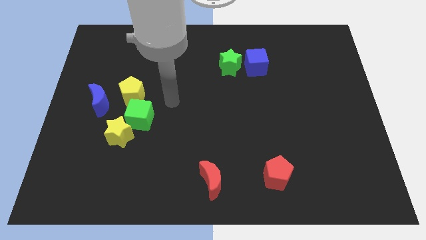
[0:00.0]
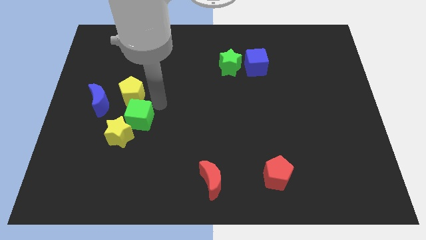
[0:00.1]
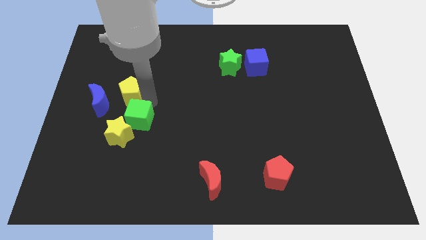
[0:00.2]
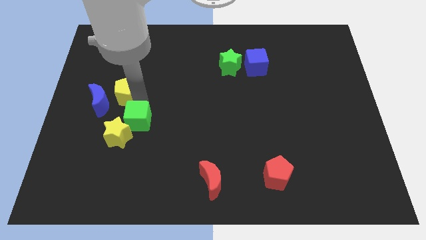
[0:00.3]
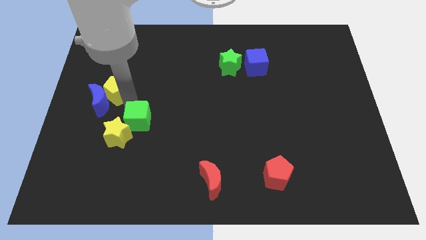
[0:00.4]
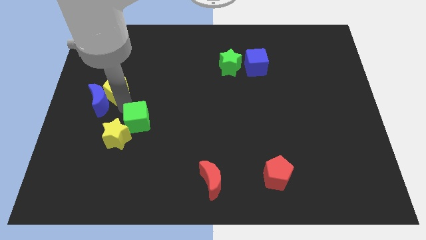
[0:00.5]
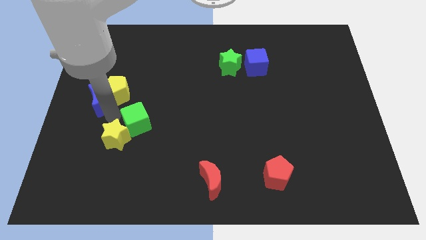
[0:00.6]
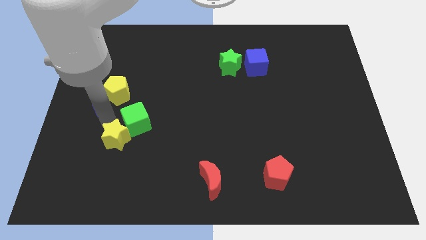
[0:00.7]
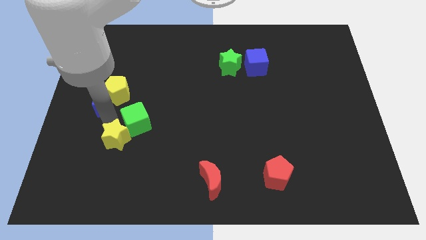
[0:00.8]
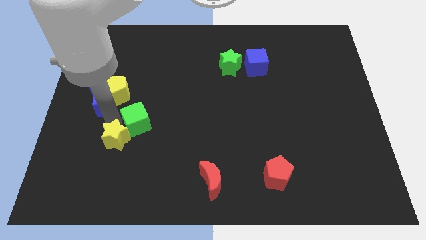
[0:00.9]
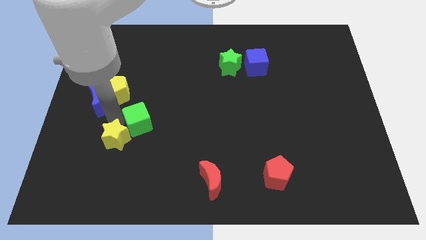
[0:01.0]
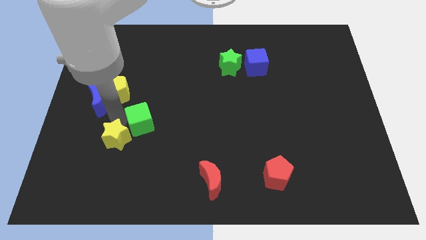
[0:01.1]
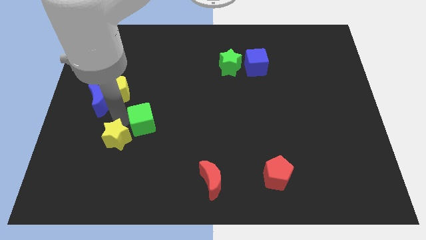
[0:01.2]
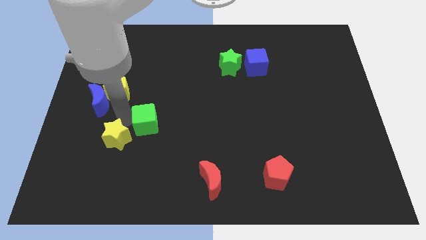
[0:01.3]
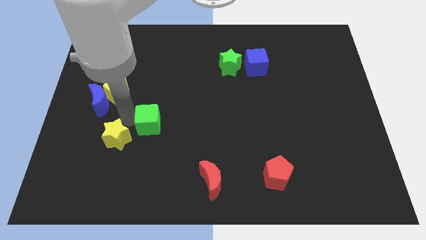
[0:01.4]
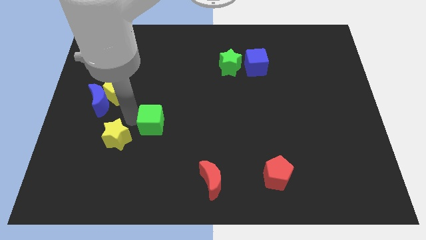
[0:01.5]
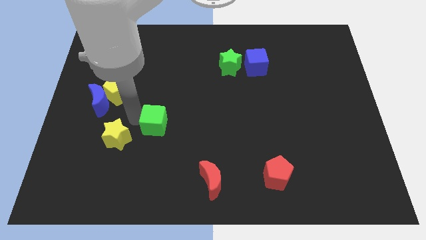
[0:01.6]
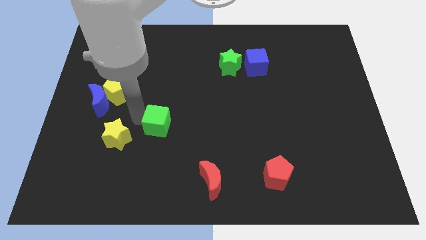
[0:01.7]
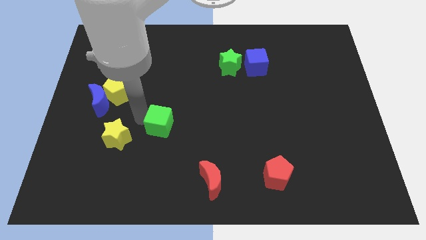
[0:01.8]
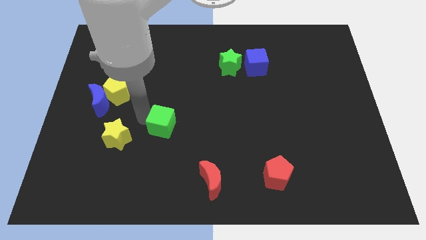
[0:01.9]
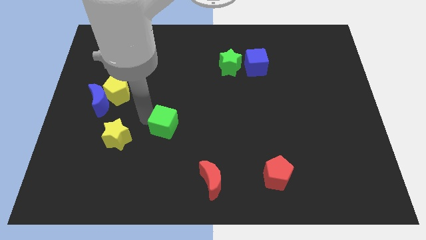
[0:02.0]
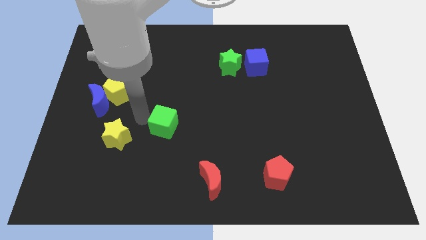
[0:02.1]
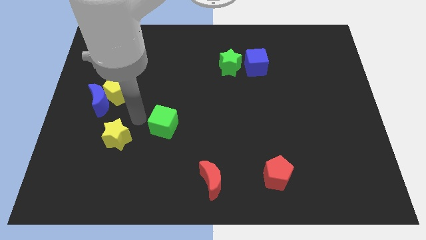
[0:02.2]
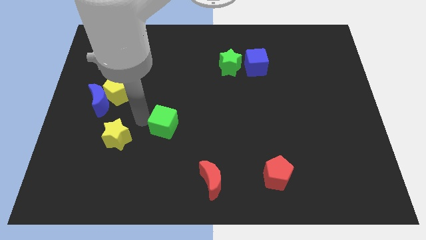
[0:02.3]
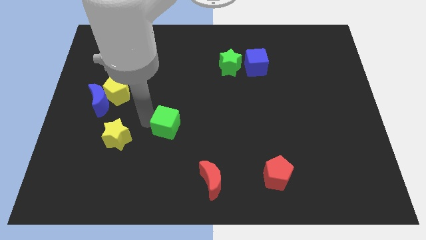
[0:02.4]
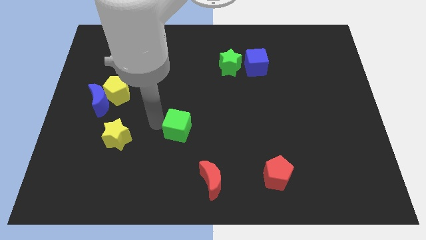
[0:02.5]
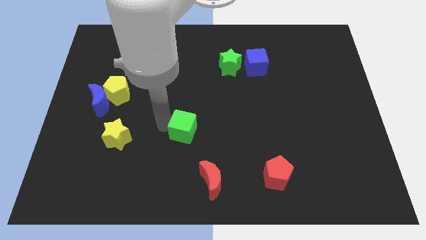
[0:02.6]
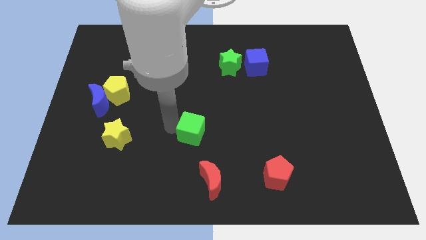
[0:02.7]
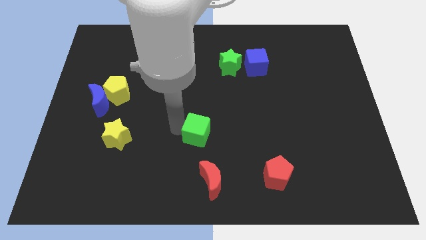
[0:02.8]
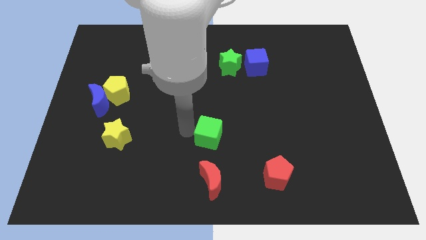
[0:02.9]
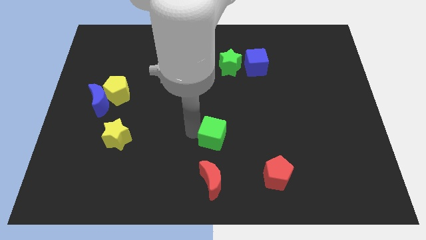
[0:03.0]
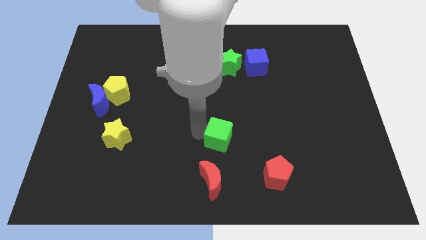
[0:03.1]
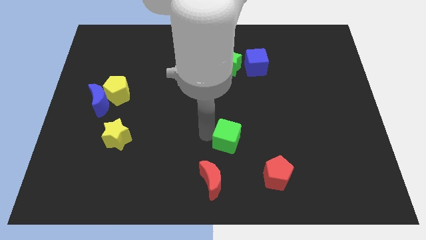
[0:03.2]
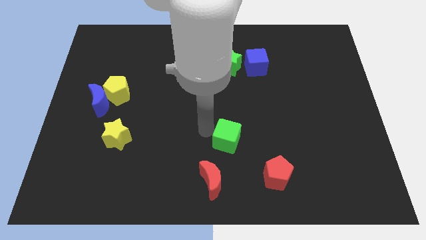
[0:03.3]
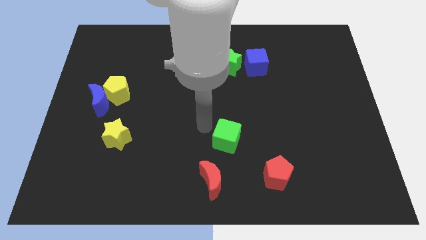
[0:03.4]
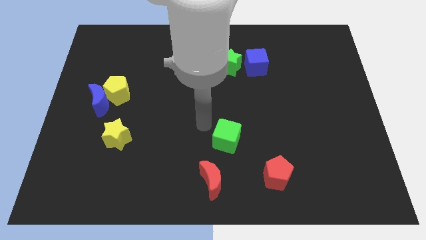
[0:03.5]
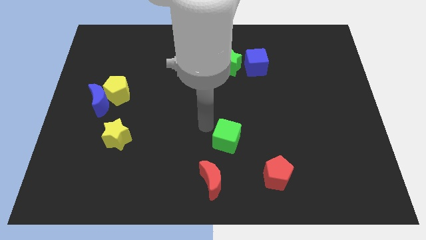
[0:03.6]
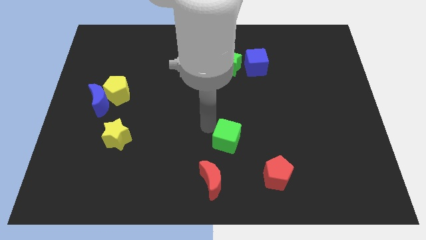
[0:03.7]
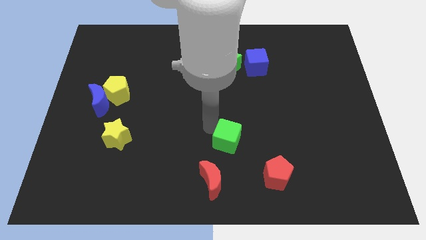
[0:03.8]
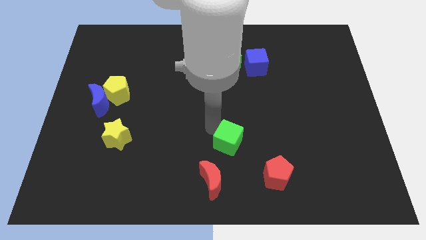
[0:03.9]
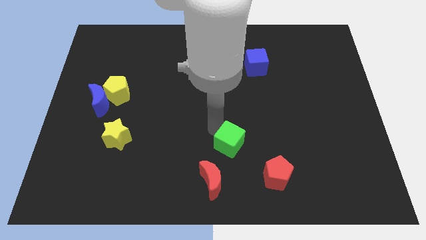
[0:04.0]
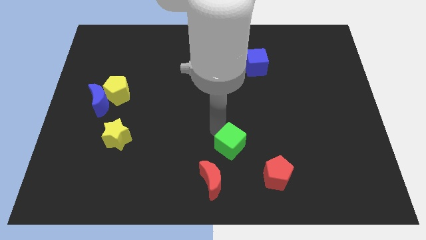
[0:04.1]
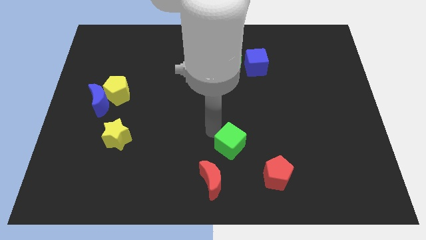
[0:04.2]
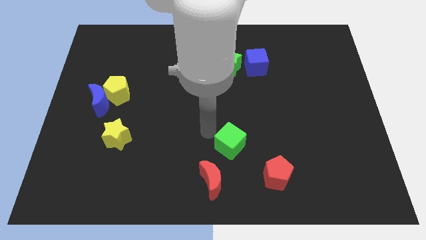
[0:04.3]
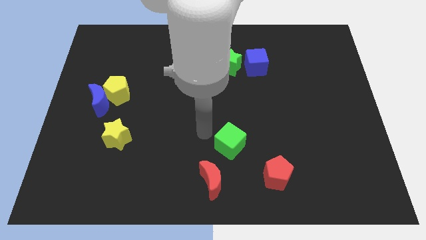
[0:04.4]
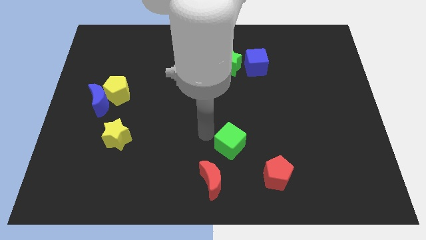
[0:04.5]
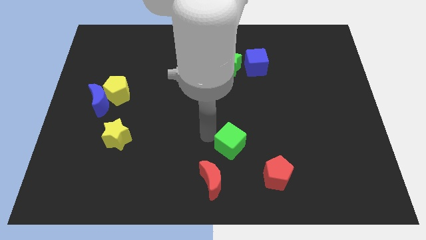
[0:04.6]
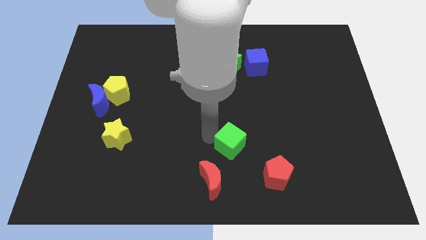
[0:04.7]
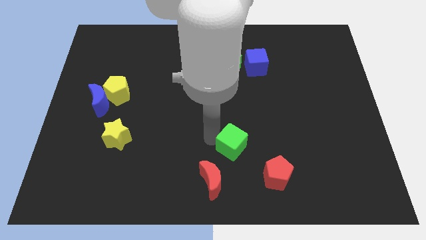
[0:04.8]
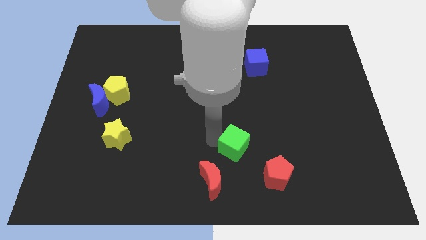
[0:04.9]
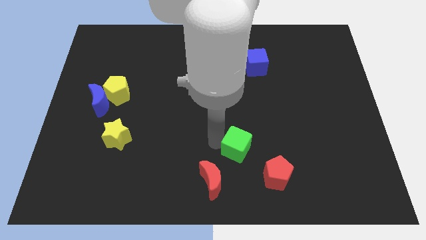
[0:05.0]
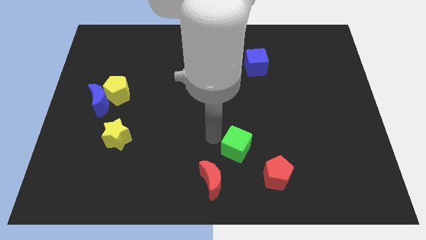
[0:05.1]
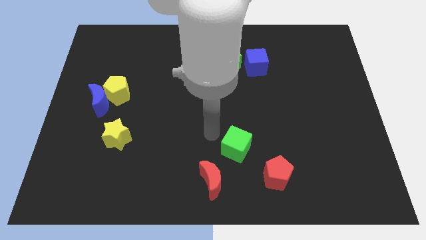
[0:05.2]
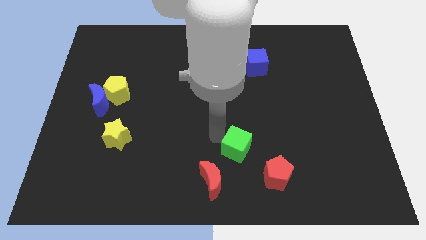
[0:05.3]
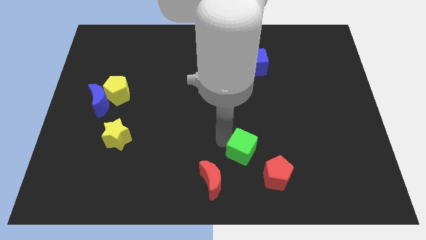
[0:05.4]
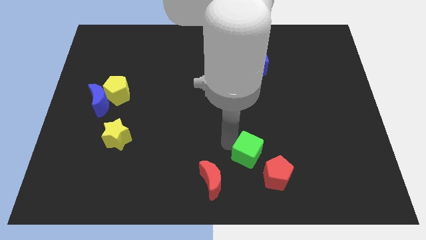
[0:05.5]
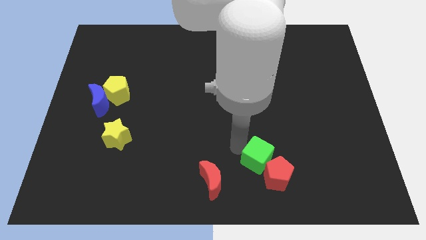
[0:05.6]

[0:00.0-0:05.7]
move the green cube close to the red pentagon

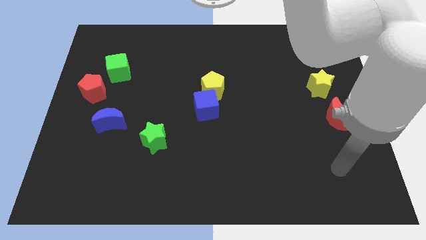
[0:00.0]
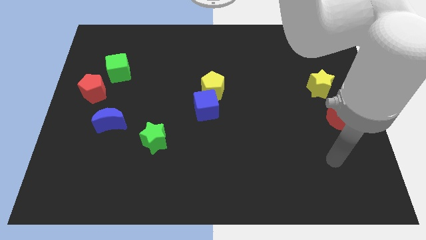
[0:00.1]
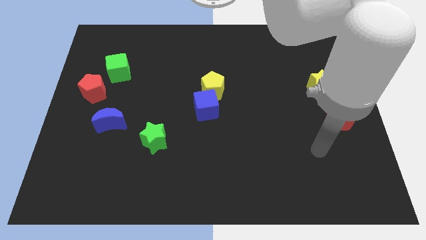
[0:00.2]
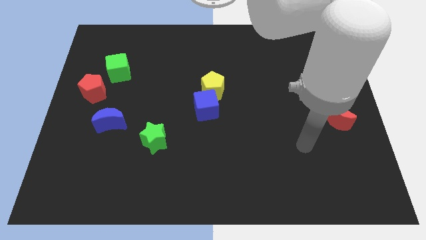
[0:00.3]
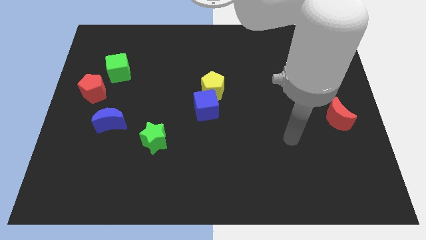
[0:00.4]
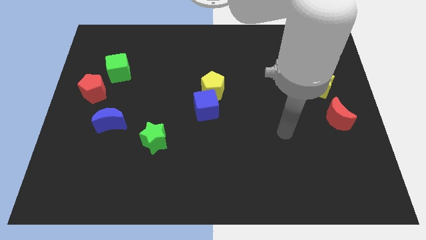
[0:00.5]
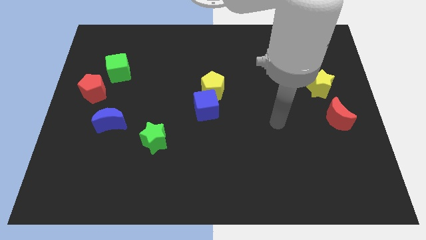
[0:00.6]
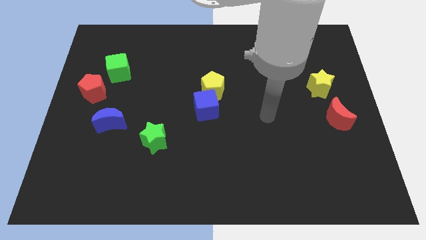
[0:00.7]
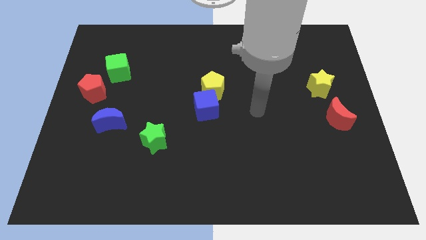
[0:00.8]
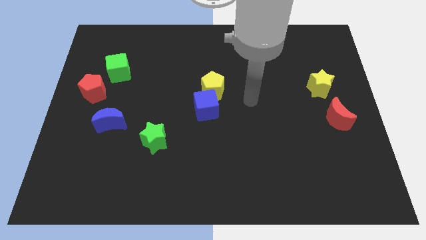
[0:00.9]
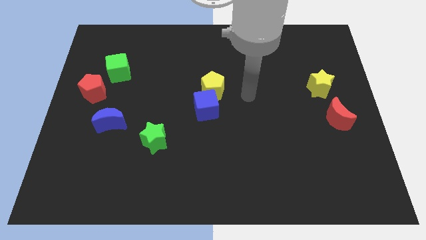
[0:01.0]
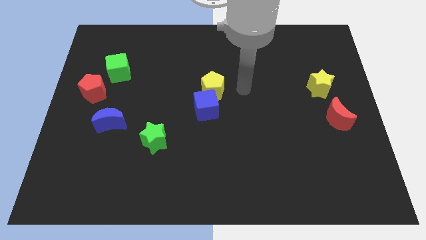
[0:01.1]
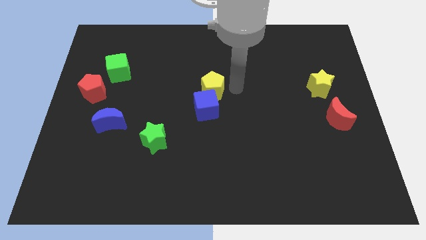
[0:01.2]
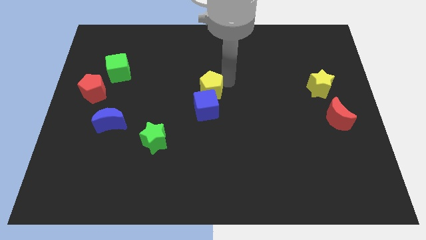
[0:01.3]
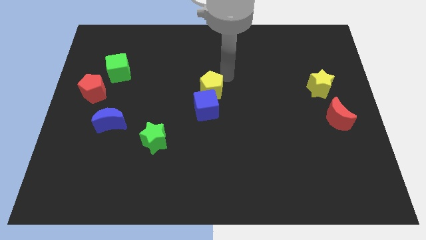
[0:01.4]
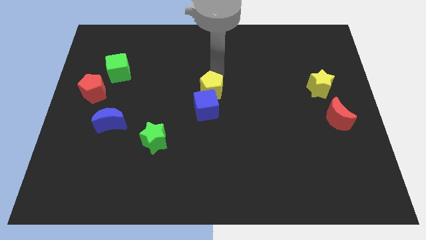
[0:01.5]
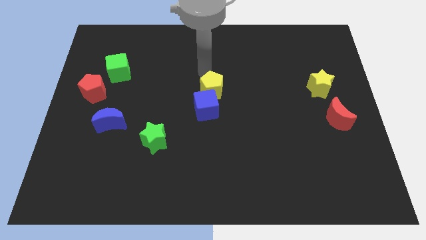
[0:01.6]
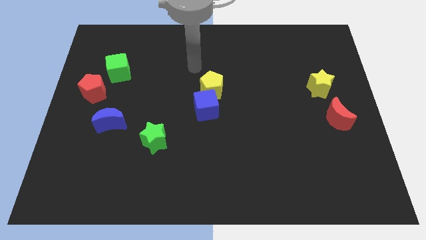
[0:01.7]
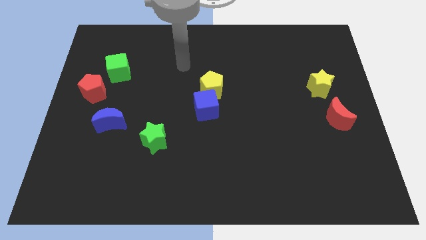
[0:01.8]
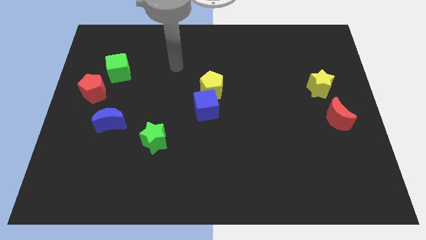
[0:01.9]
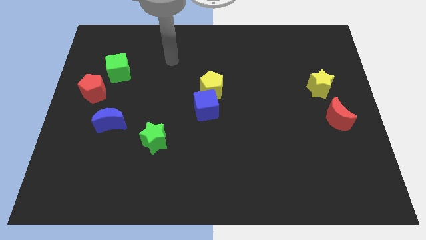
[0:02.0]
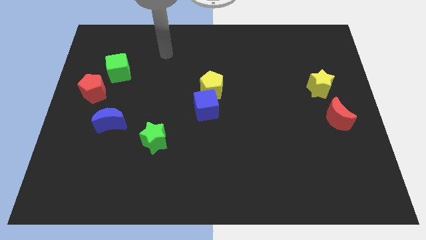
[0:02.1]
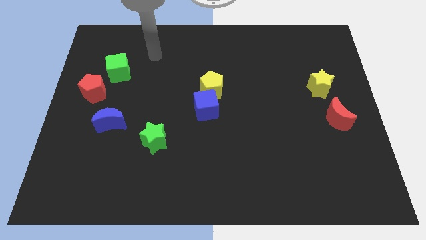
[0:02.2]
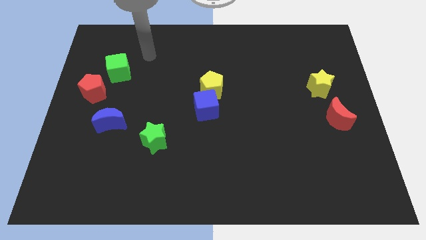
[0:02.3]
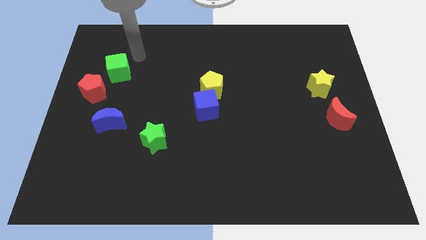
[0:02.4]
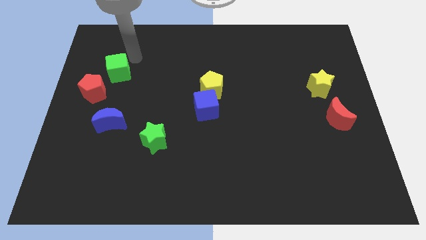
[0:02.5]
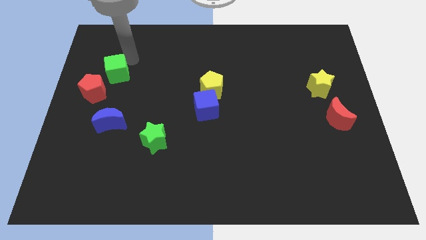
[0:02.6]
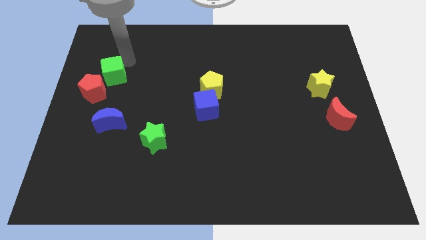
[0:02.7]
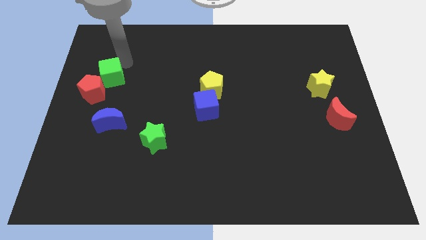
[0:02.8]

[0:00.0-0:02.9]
push the green cube towards the red pentagon
